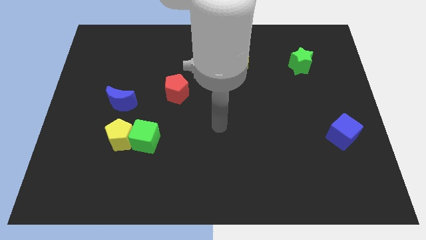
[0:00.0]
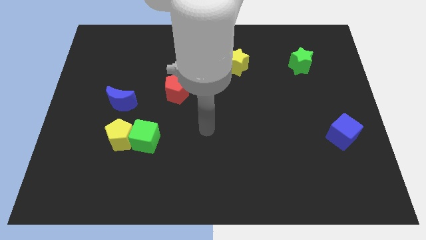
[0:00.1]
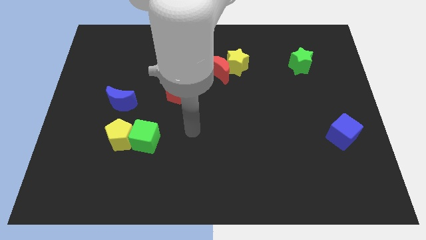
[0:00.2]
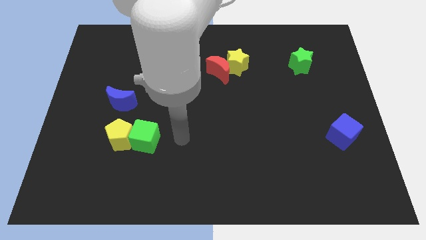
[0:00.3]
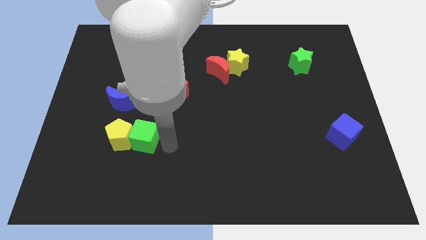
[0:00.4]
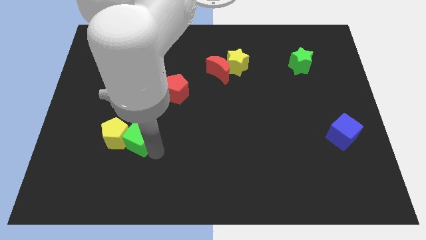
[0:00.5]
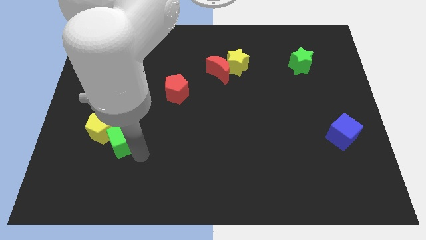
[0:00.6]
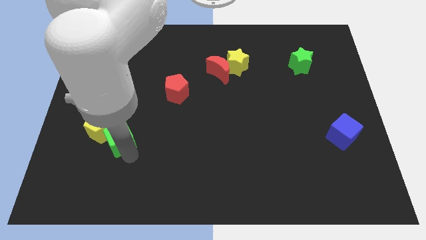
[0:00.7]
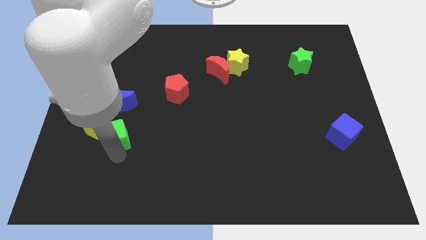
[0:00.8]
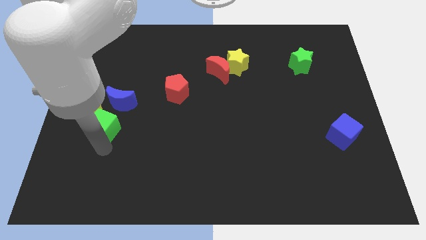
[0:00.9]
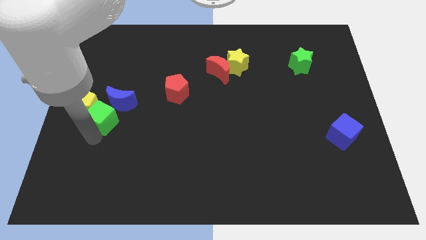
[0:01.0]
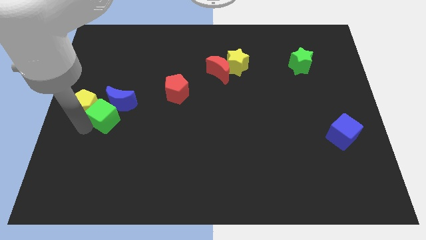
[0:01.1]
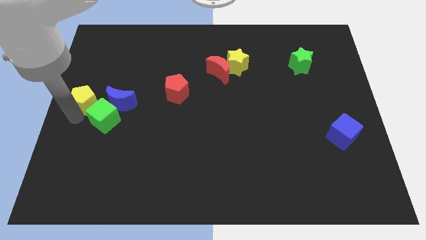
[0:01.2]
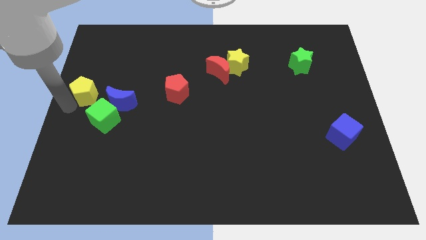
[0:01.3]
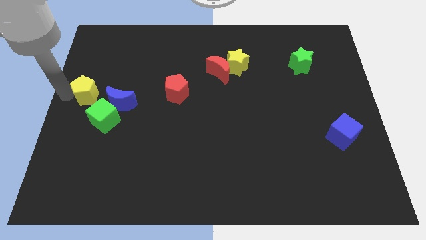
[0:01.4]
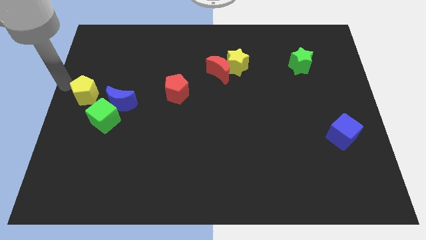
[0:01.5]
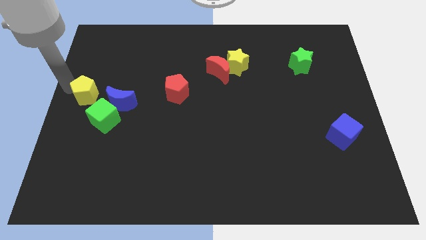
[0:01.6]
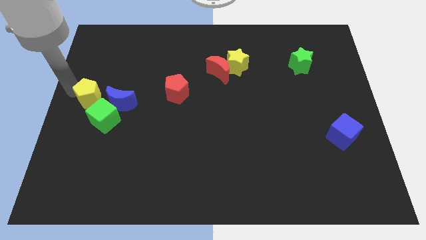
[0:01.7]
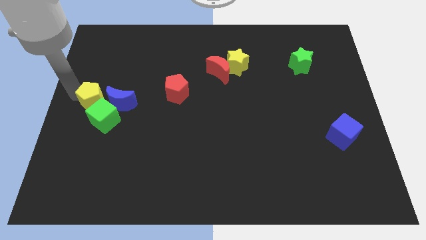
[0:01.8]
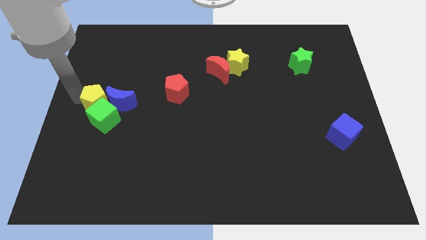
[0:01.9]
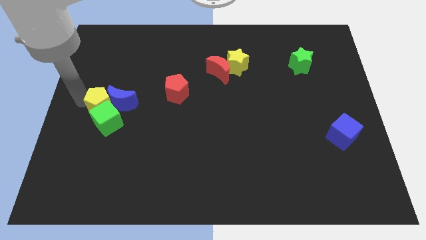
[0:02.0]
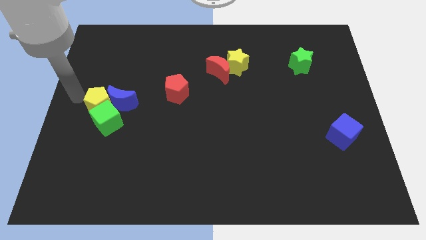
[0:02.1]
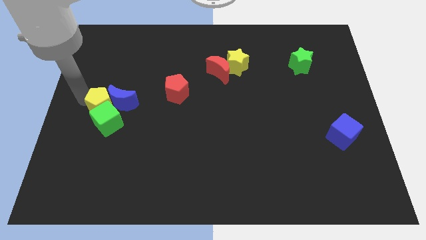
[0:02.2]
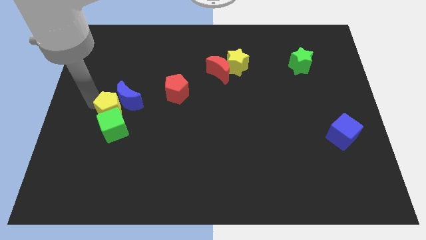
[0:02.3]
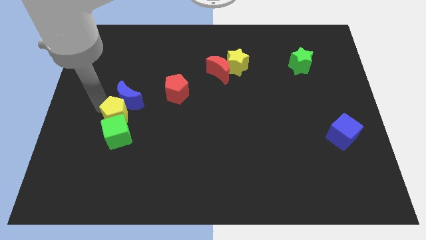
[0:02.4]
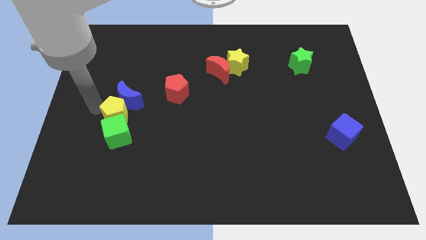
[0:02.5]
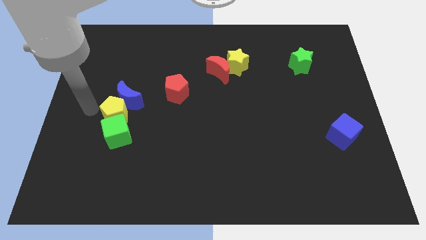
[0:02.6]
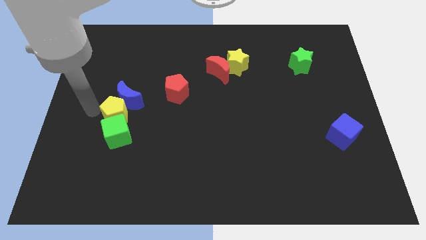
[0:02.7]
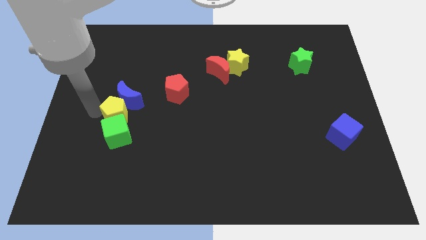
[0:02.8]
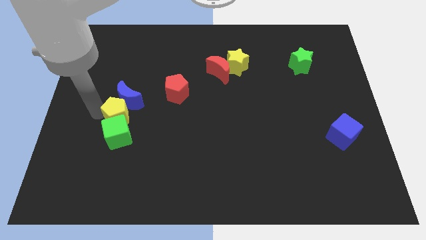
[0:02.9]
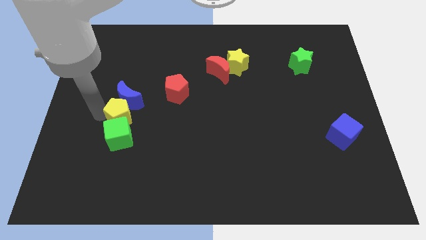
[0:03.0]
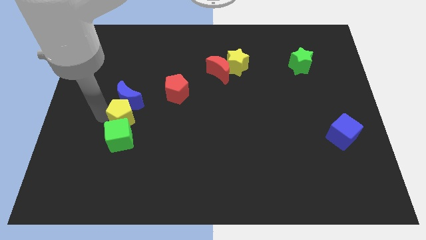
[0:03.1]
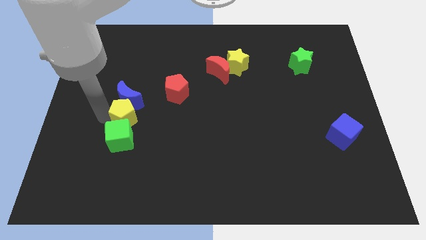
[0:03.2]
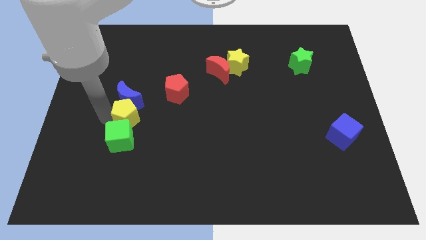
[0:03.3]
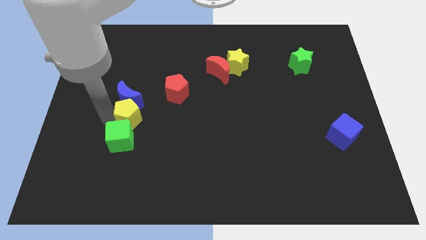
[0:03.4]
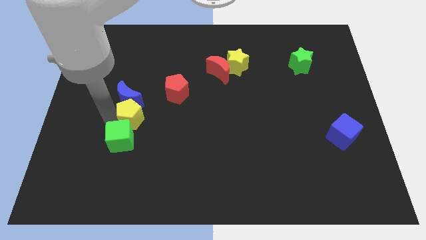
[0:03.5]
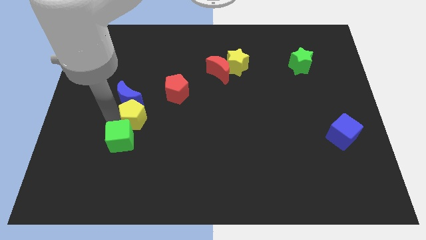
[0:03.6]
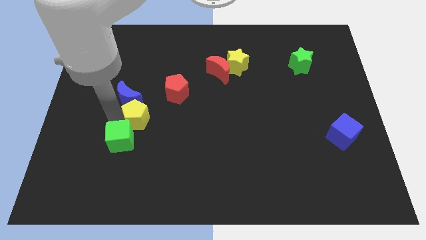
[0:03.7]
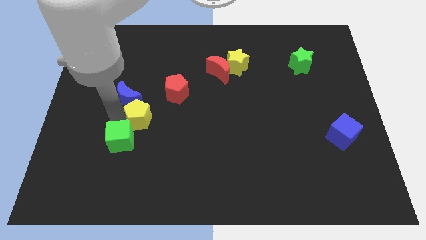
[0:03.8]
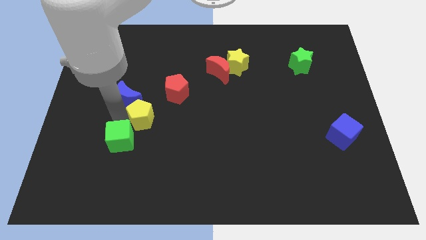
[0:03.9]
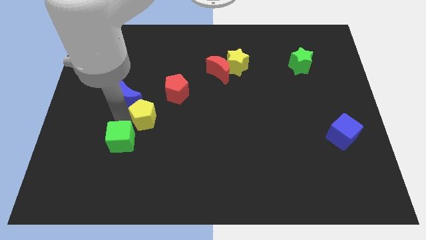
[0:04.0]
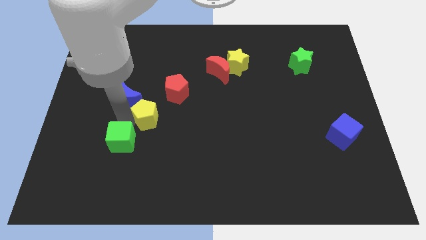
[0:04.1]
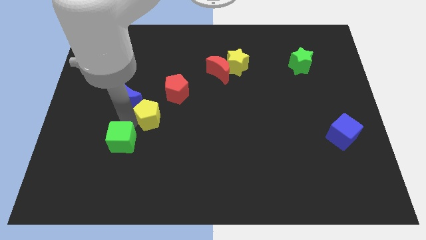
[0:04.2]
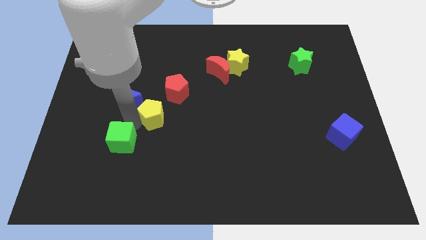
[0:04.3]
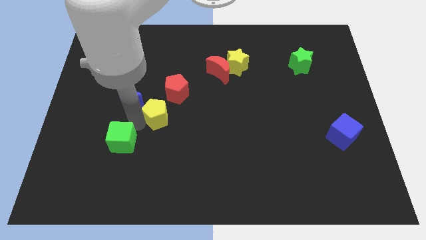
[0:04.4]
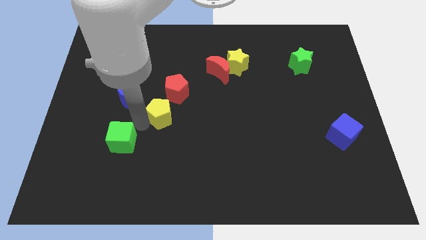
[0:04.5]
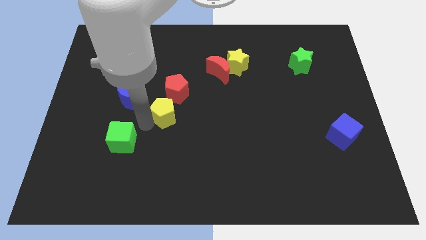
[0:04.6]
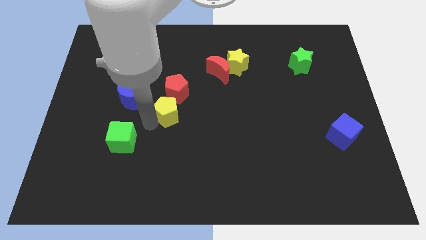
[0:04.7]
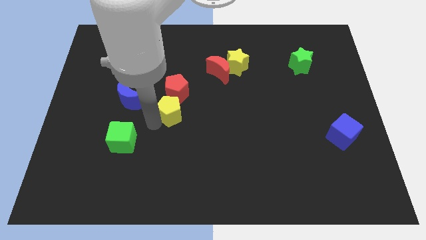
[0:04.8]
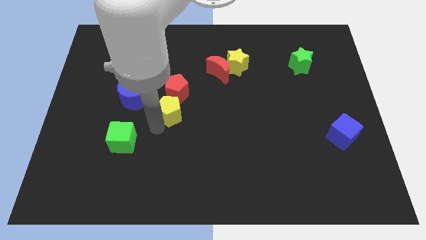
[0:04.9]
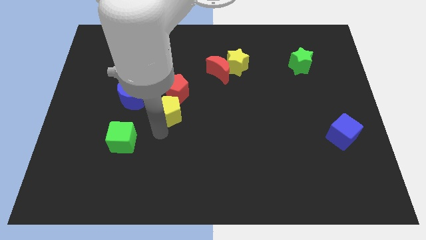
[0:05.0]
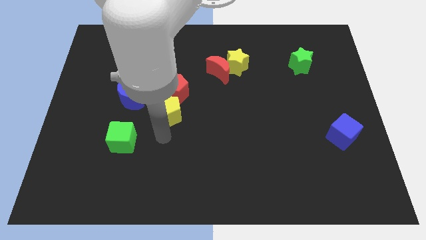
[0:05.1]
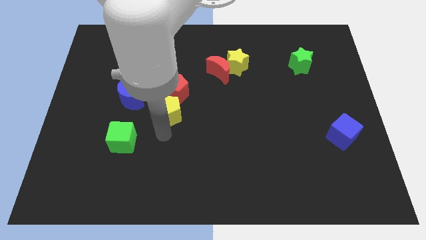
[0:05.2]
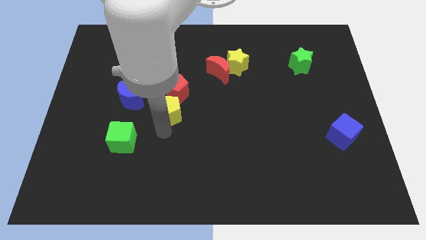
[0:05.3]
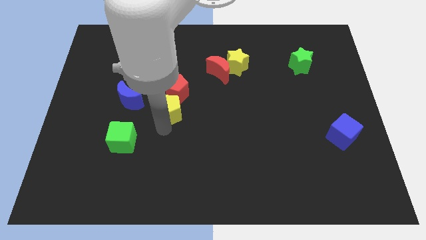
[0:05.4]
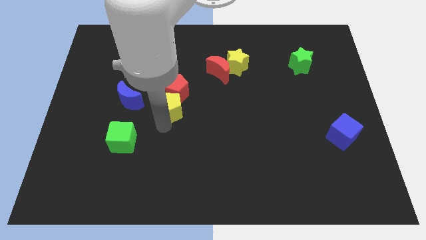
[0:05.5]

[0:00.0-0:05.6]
slide the yellow pentagon close to the red pentagon

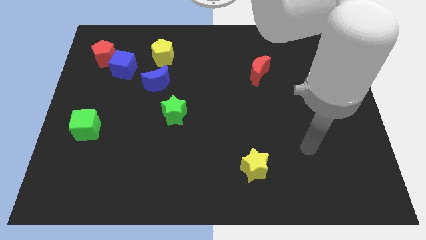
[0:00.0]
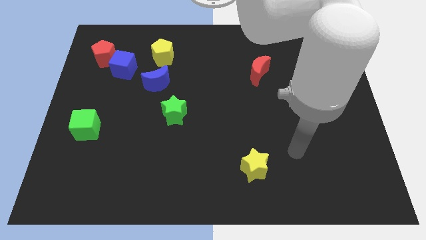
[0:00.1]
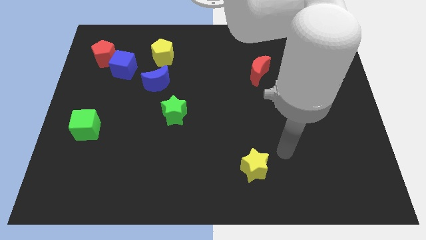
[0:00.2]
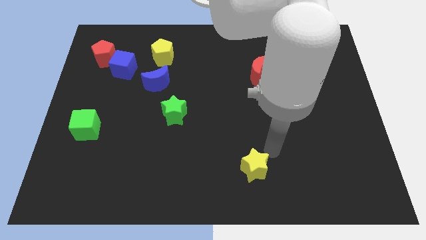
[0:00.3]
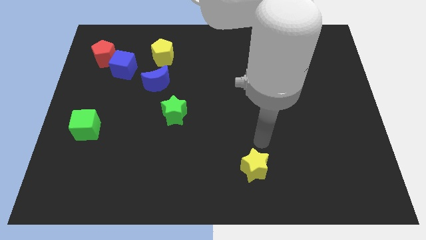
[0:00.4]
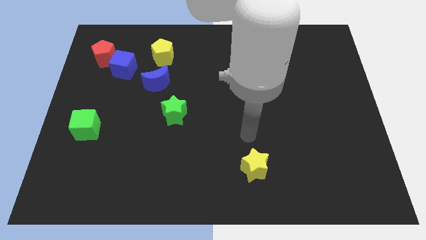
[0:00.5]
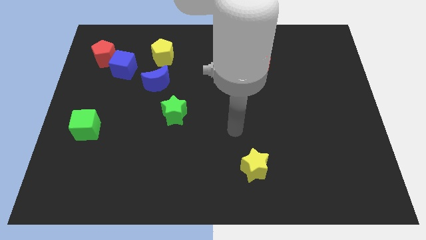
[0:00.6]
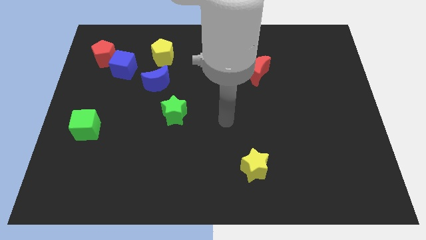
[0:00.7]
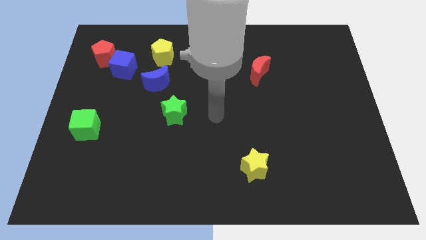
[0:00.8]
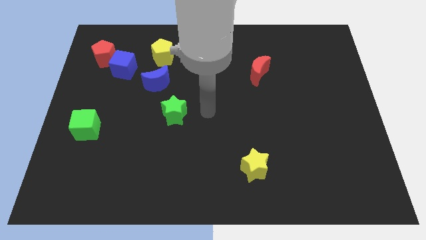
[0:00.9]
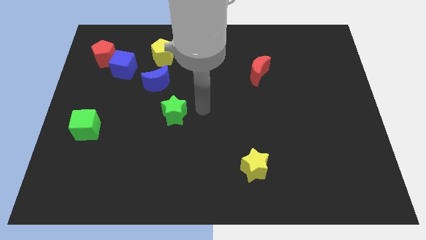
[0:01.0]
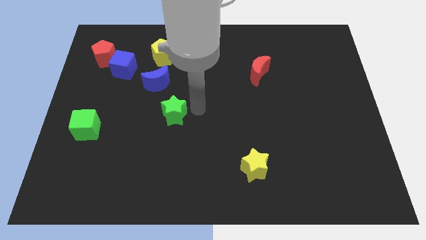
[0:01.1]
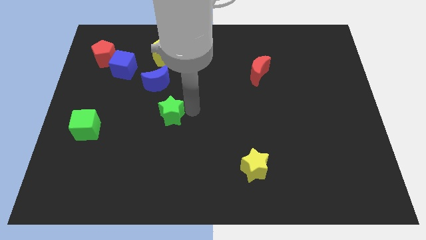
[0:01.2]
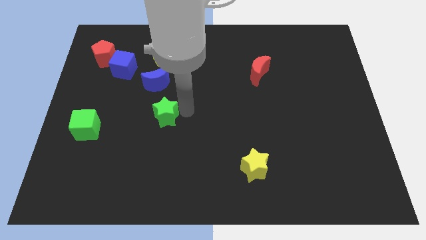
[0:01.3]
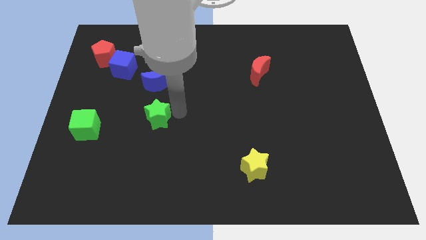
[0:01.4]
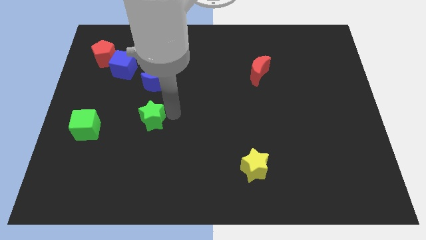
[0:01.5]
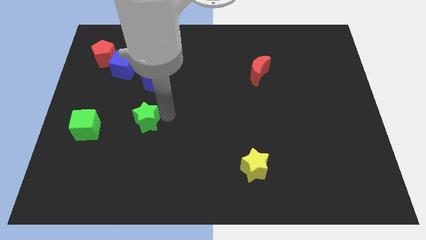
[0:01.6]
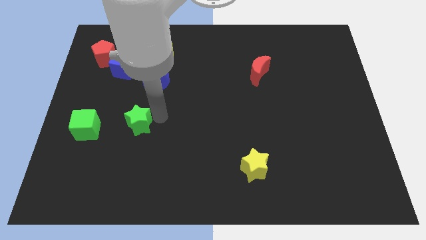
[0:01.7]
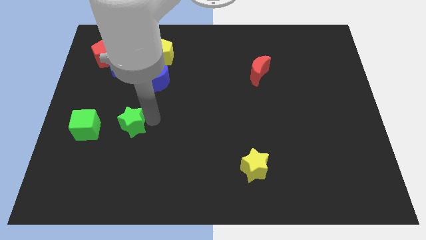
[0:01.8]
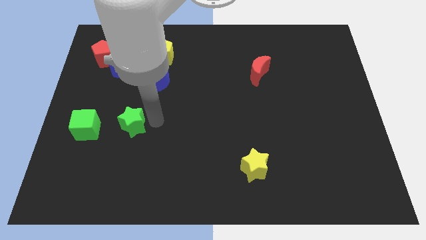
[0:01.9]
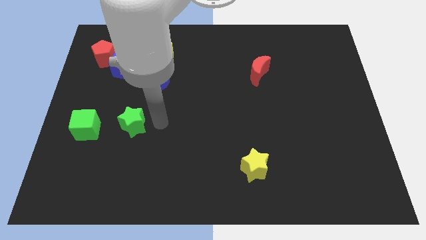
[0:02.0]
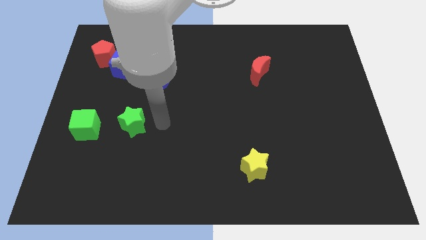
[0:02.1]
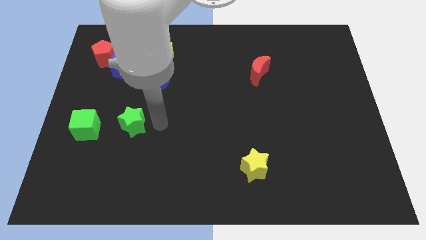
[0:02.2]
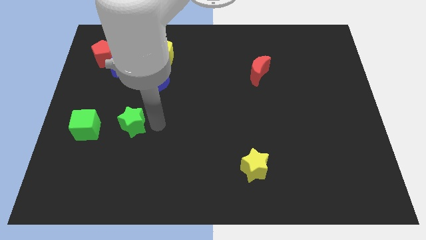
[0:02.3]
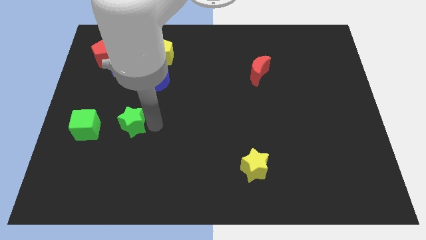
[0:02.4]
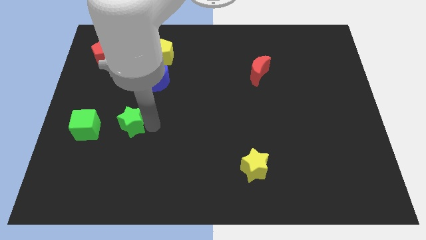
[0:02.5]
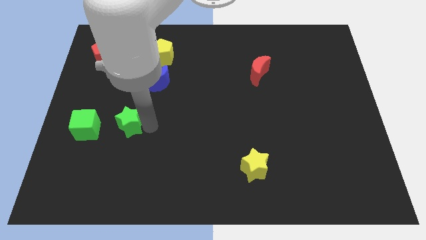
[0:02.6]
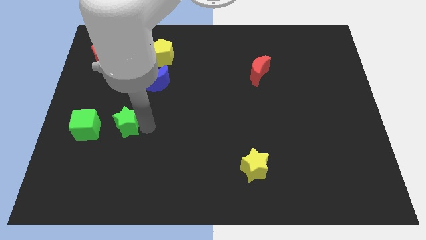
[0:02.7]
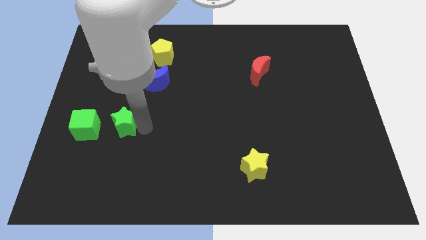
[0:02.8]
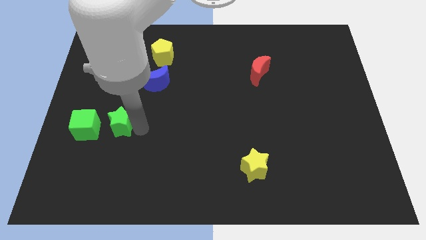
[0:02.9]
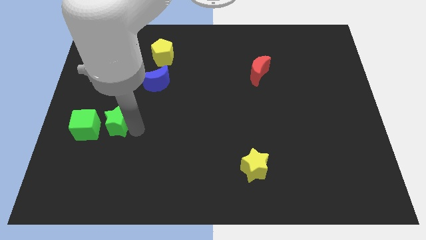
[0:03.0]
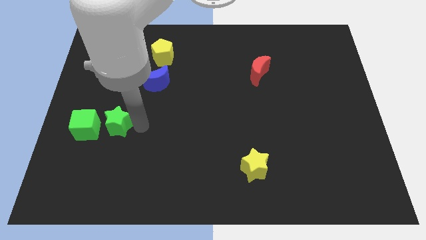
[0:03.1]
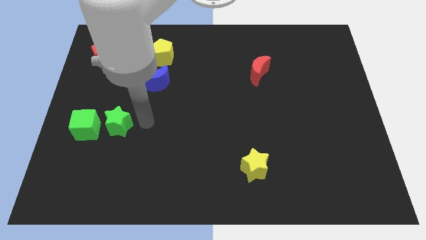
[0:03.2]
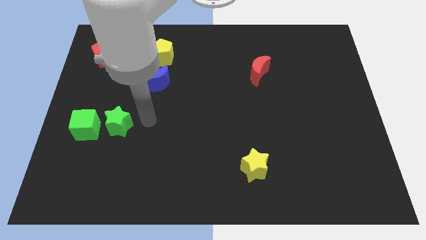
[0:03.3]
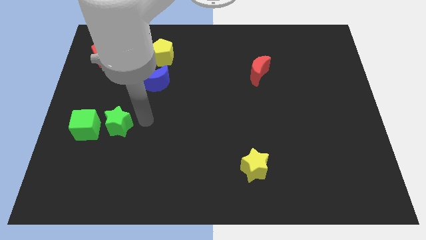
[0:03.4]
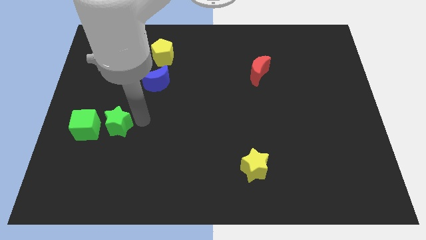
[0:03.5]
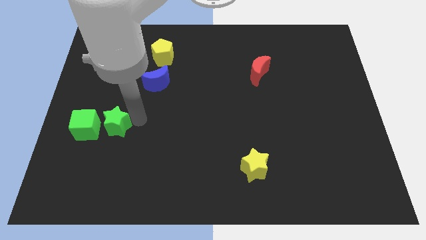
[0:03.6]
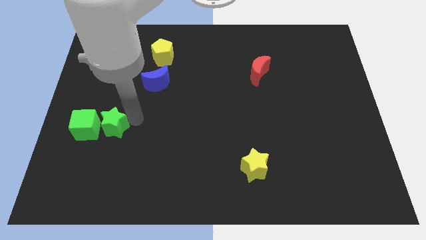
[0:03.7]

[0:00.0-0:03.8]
push the green star next to the green cube
